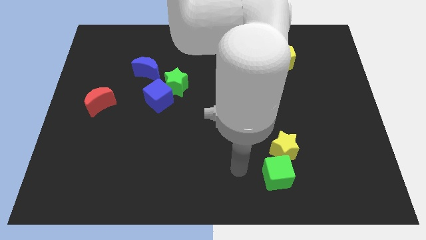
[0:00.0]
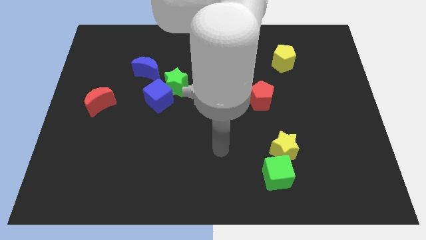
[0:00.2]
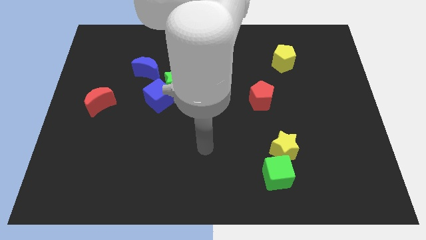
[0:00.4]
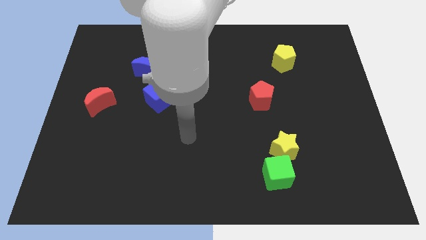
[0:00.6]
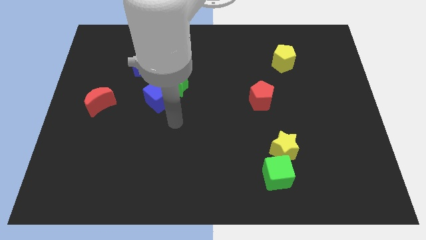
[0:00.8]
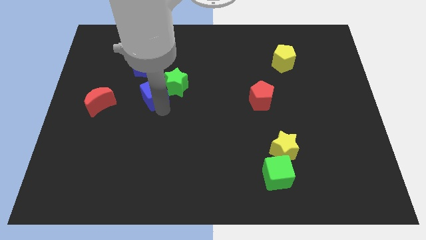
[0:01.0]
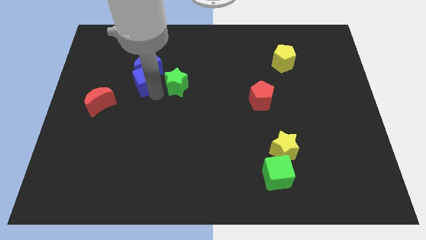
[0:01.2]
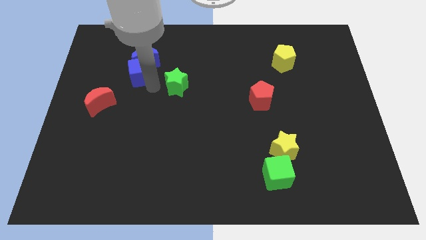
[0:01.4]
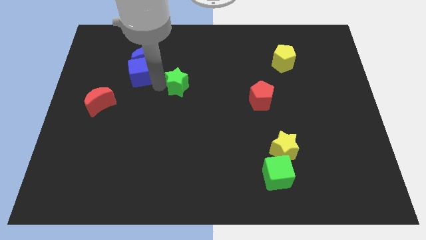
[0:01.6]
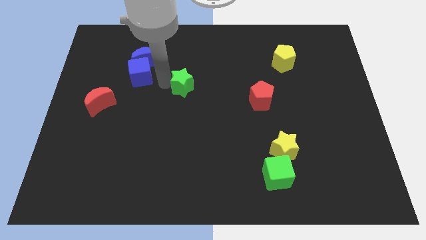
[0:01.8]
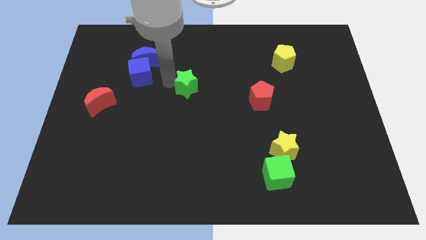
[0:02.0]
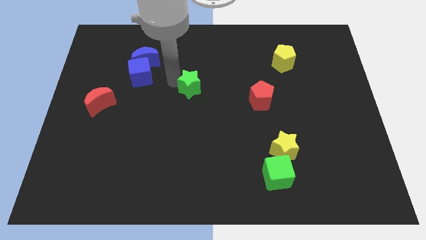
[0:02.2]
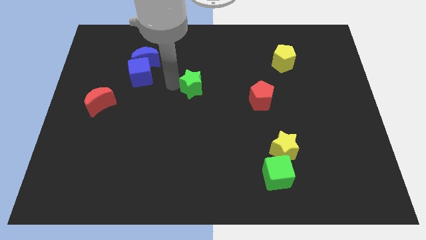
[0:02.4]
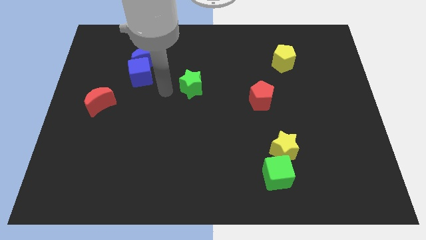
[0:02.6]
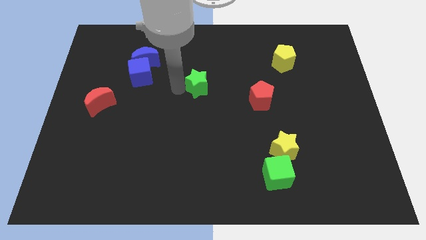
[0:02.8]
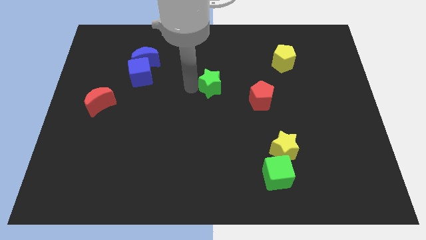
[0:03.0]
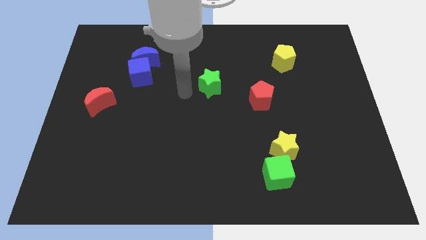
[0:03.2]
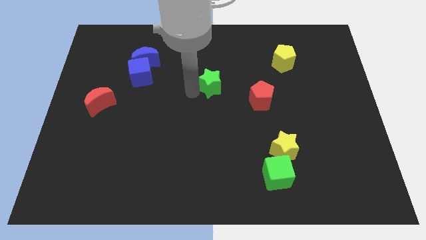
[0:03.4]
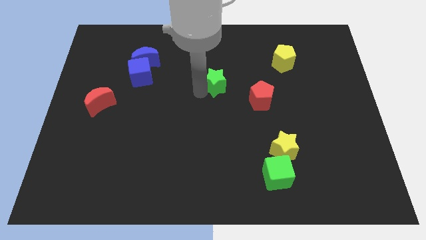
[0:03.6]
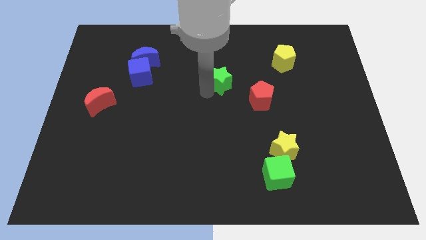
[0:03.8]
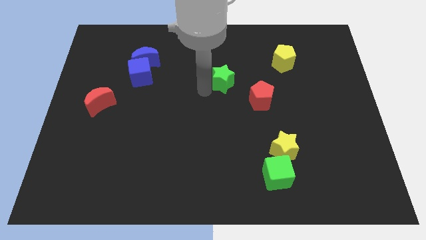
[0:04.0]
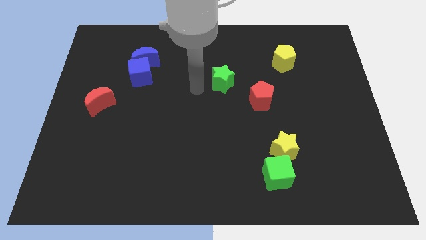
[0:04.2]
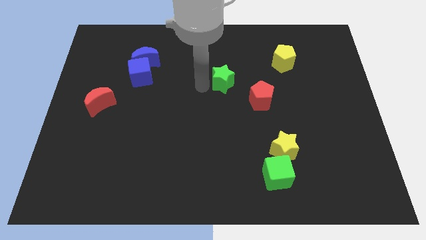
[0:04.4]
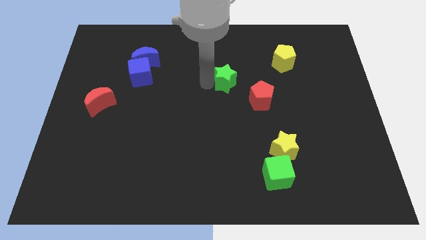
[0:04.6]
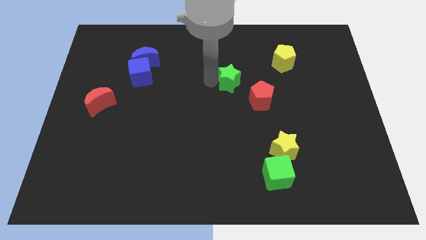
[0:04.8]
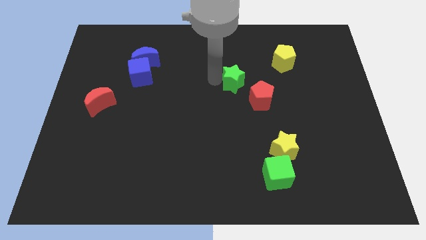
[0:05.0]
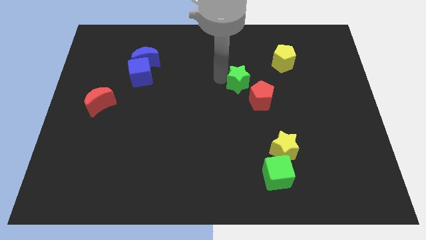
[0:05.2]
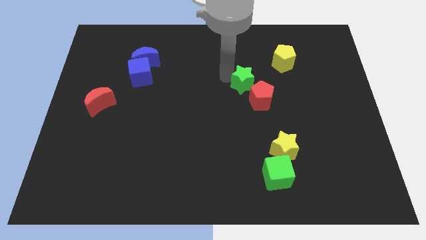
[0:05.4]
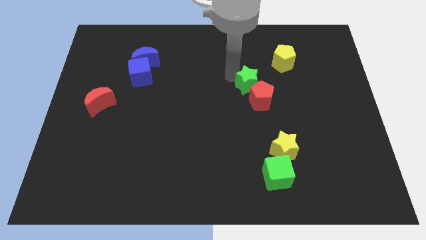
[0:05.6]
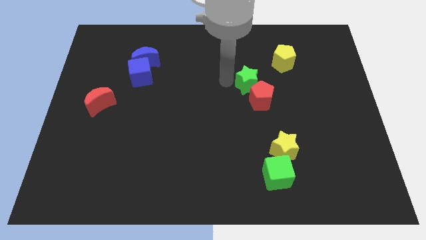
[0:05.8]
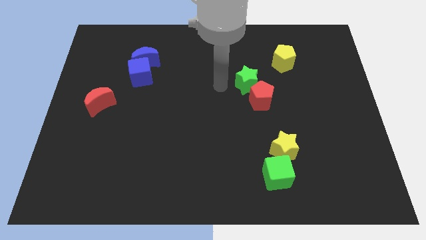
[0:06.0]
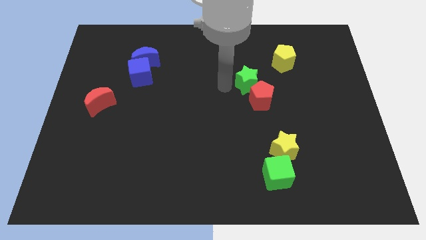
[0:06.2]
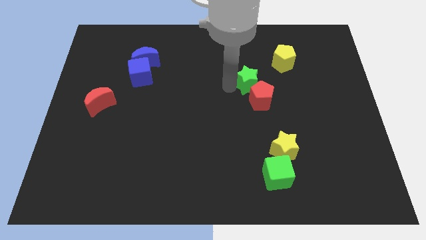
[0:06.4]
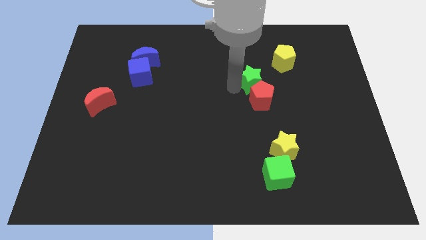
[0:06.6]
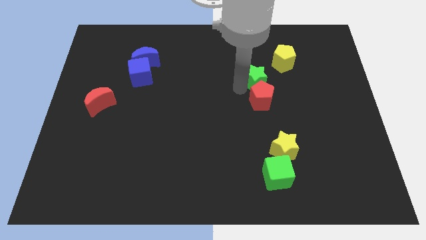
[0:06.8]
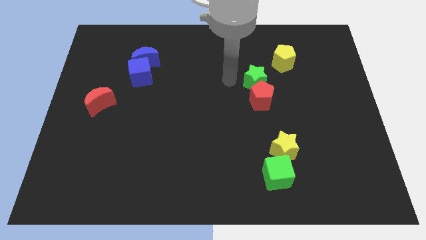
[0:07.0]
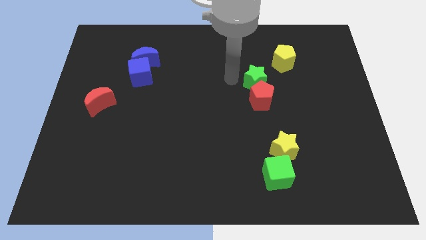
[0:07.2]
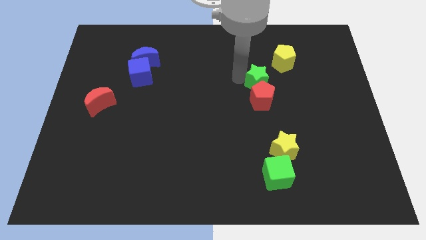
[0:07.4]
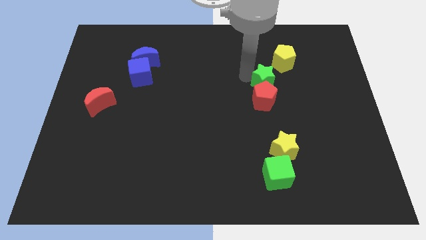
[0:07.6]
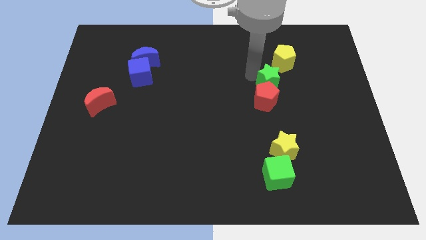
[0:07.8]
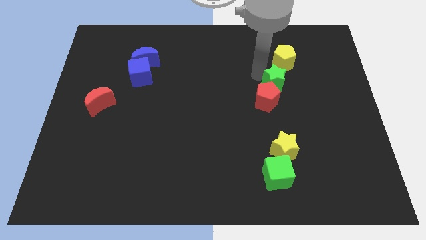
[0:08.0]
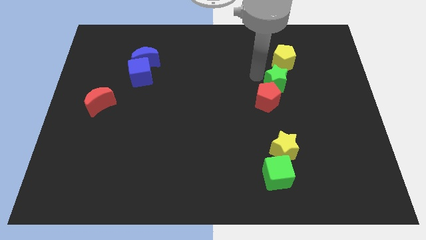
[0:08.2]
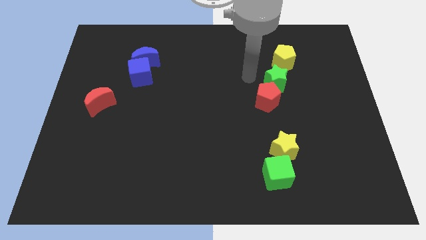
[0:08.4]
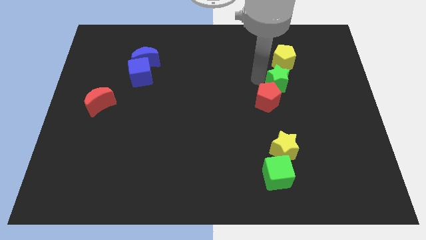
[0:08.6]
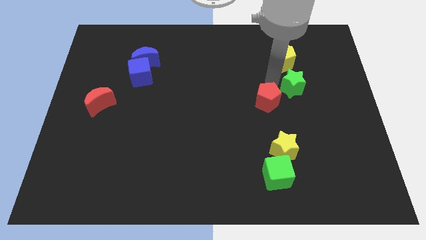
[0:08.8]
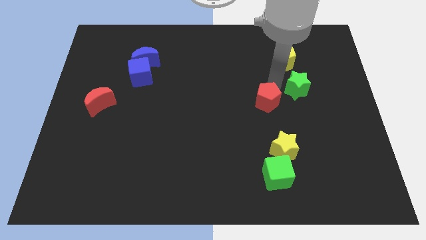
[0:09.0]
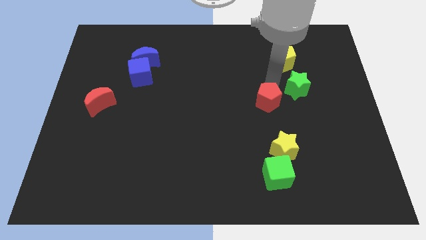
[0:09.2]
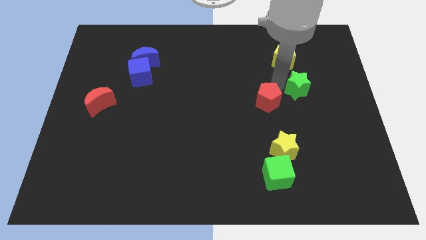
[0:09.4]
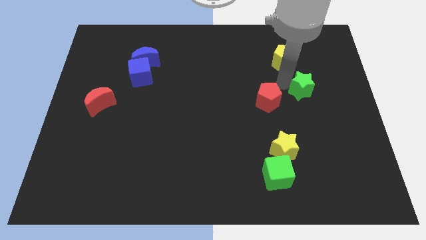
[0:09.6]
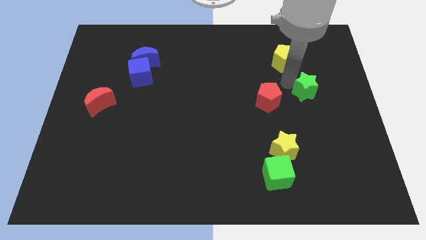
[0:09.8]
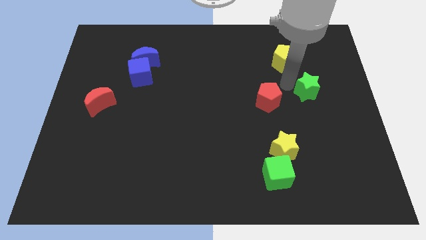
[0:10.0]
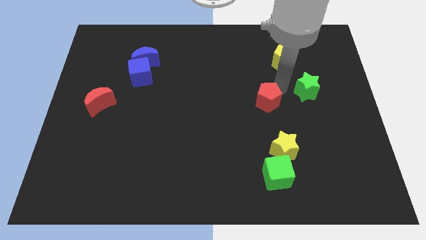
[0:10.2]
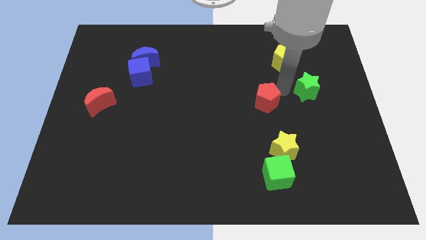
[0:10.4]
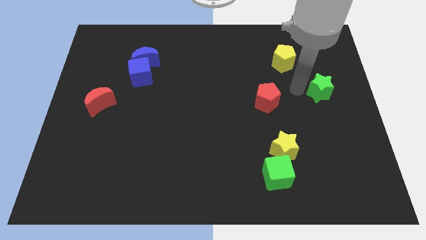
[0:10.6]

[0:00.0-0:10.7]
slide the green star to the right side of the board

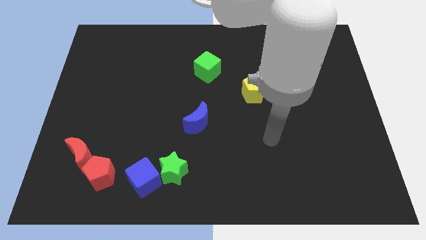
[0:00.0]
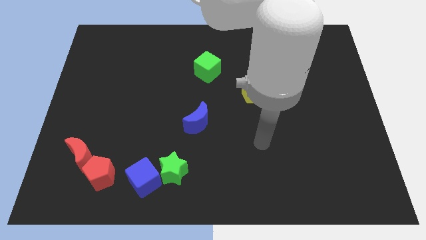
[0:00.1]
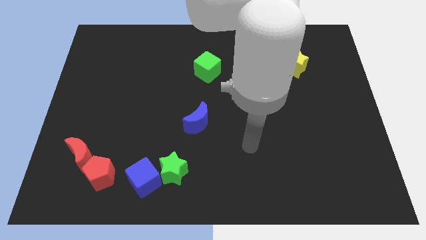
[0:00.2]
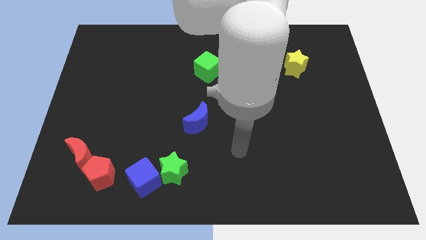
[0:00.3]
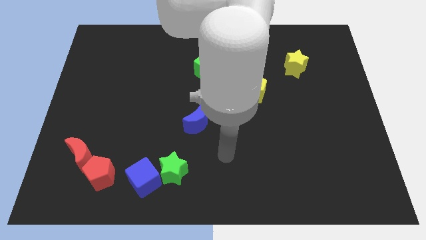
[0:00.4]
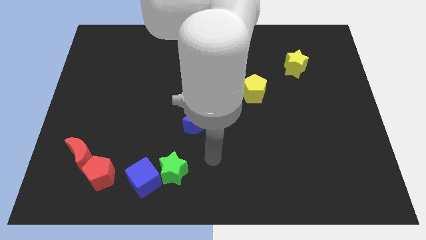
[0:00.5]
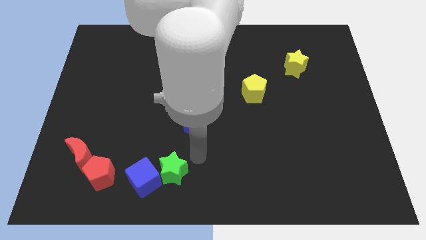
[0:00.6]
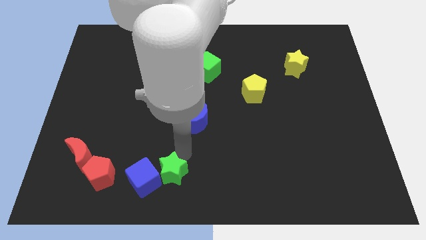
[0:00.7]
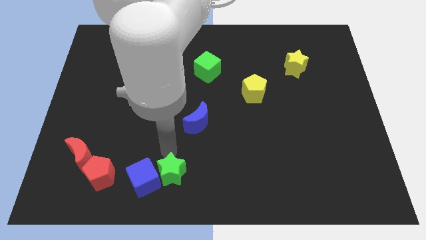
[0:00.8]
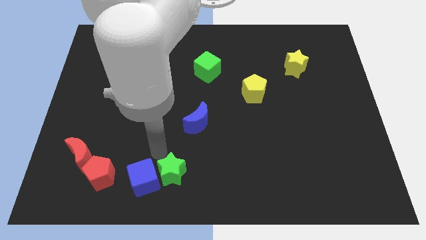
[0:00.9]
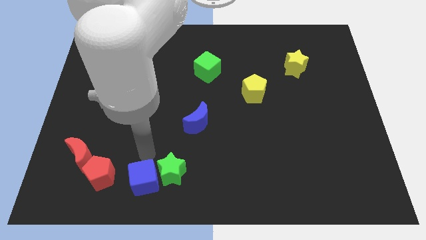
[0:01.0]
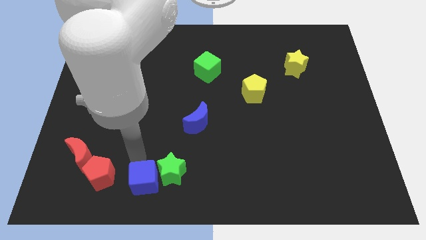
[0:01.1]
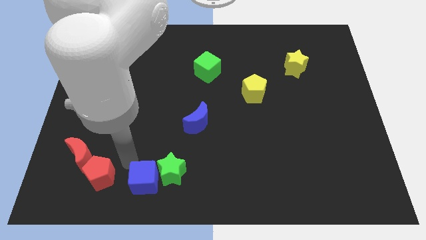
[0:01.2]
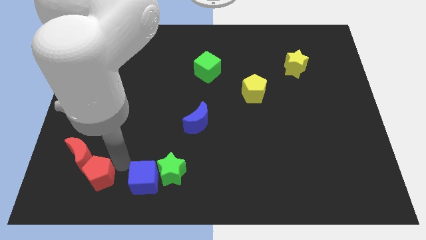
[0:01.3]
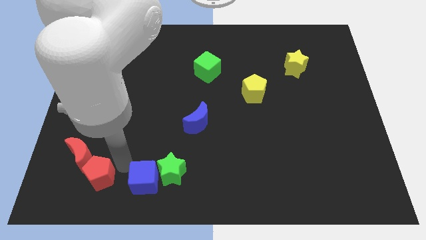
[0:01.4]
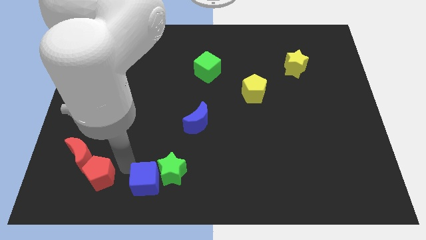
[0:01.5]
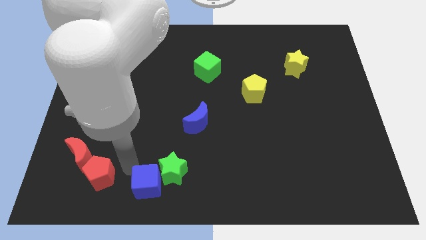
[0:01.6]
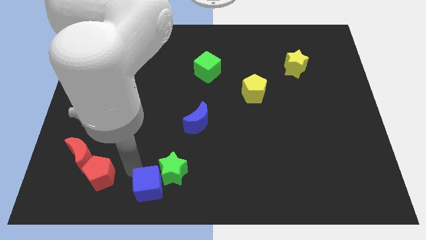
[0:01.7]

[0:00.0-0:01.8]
put the blue cube to the bottom side
